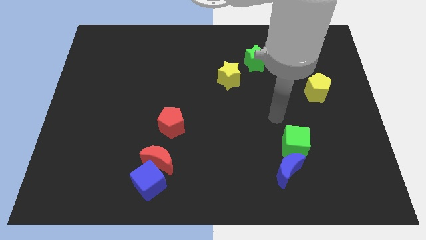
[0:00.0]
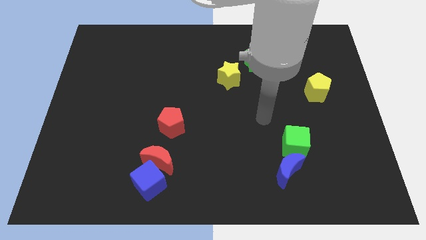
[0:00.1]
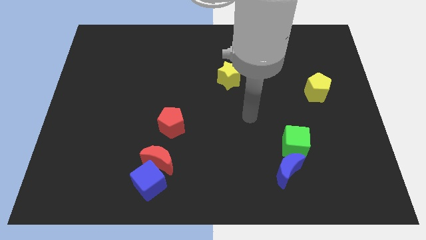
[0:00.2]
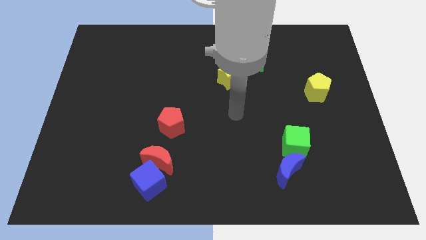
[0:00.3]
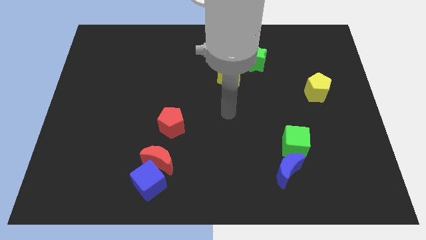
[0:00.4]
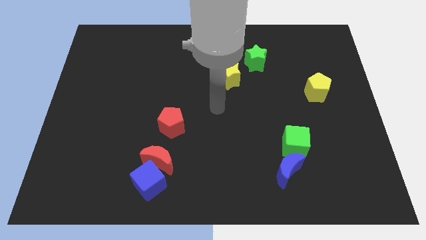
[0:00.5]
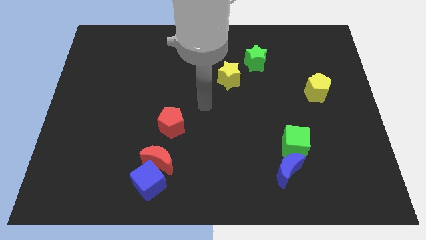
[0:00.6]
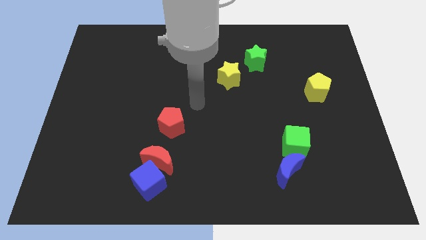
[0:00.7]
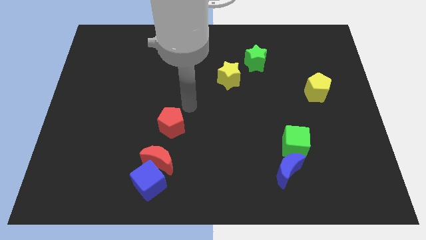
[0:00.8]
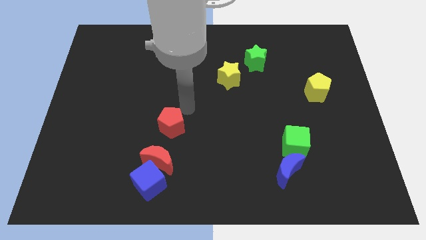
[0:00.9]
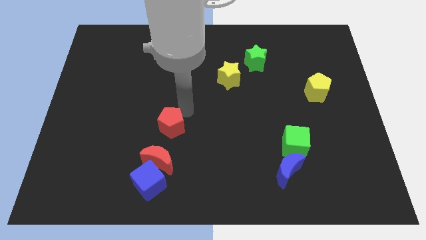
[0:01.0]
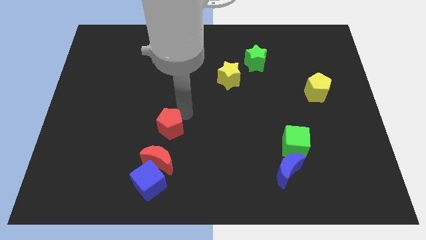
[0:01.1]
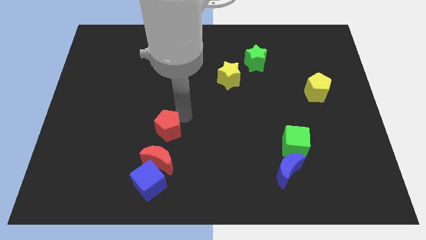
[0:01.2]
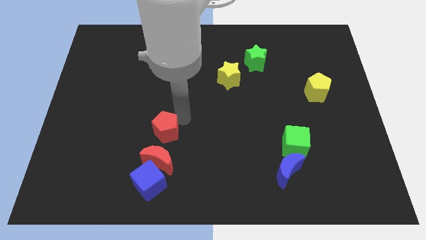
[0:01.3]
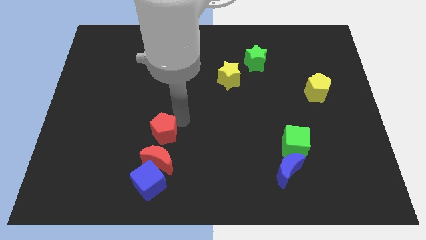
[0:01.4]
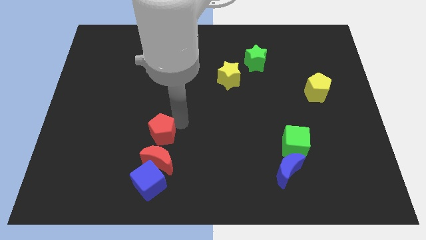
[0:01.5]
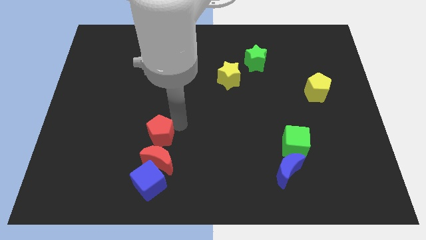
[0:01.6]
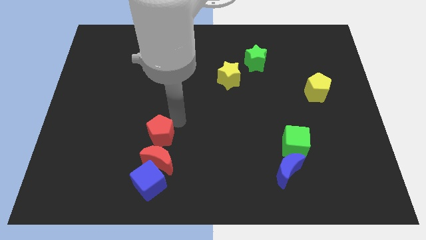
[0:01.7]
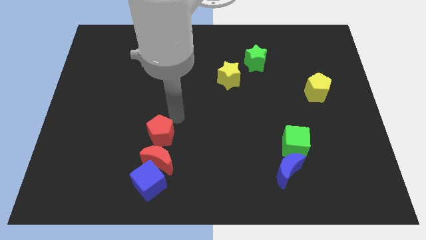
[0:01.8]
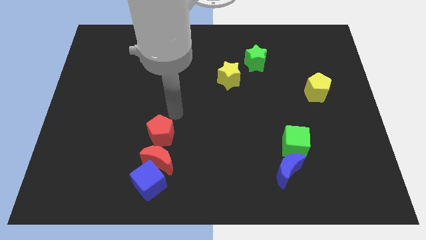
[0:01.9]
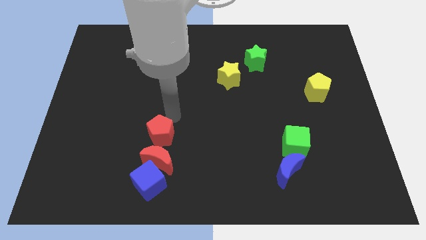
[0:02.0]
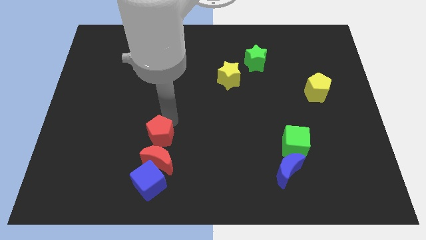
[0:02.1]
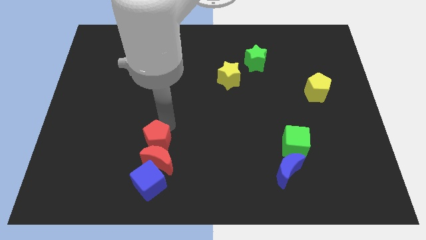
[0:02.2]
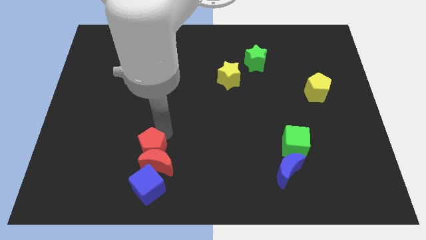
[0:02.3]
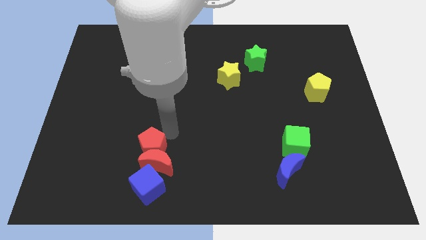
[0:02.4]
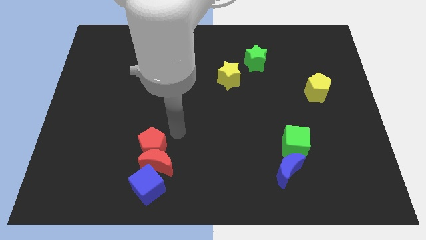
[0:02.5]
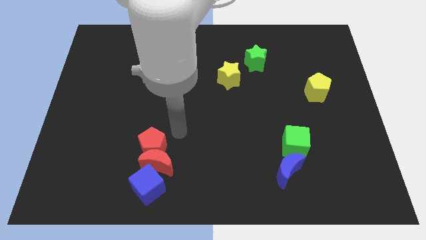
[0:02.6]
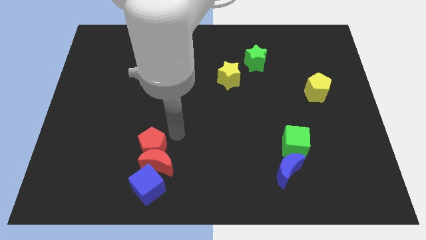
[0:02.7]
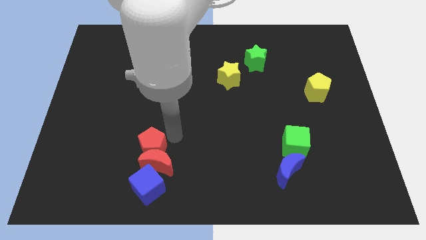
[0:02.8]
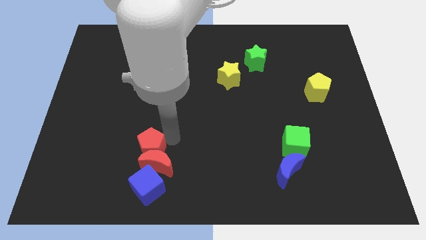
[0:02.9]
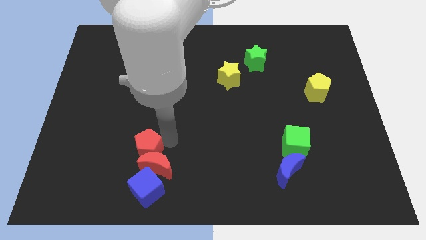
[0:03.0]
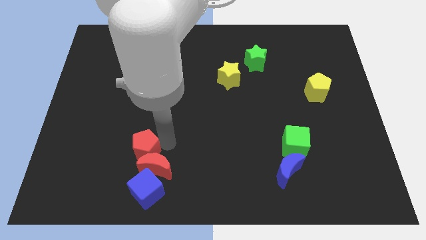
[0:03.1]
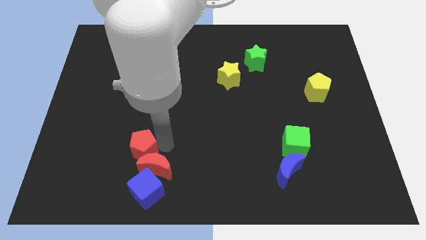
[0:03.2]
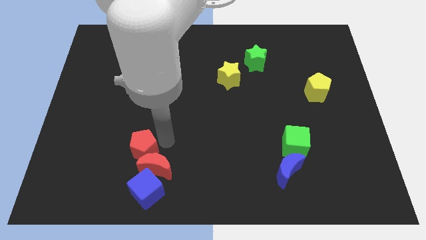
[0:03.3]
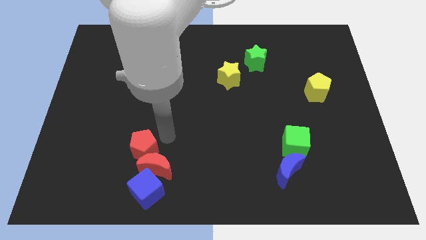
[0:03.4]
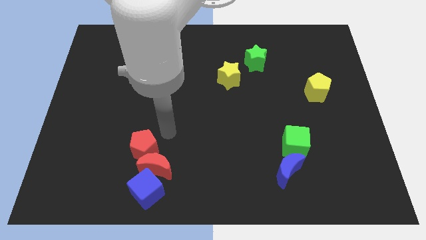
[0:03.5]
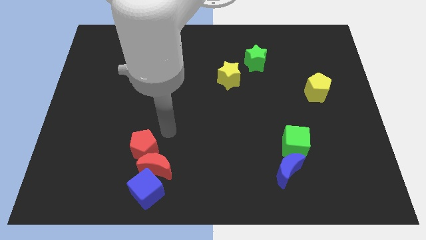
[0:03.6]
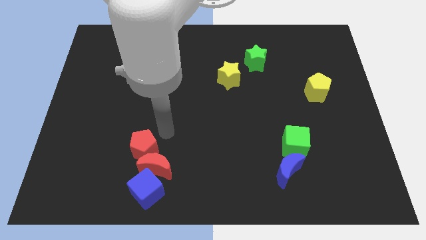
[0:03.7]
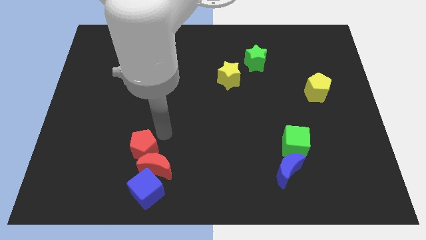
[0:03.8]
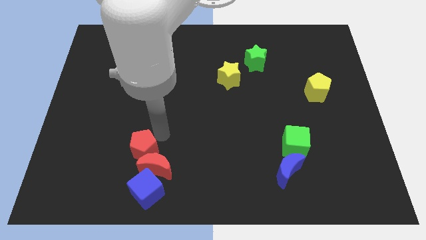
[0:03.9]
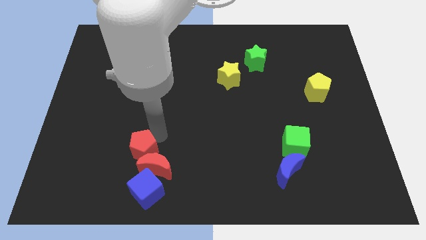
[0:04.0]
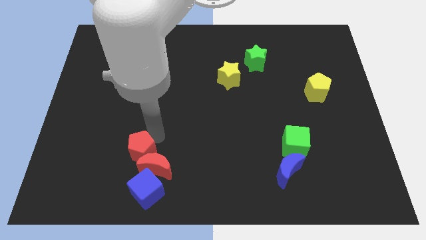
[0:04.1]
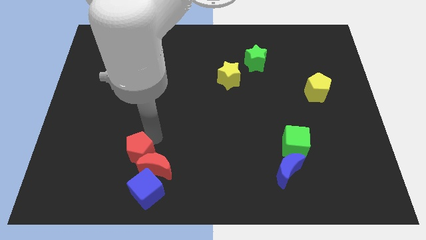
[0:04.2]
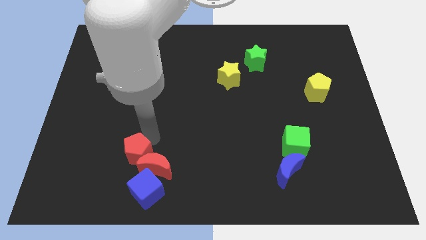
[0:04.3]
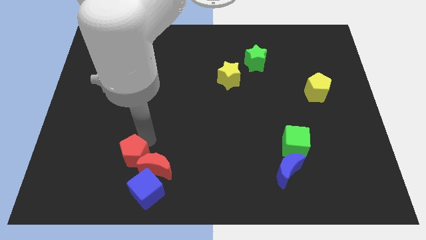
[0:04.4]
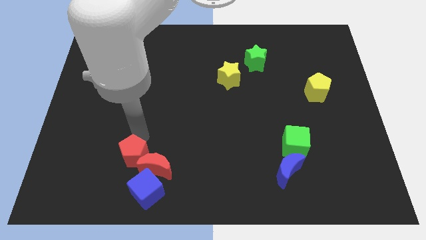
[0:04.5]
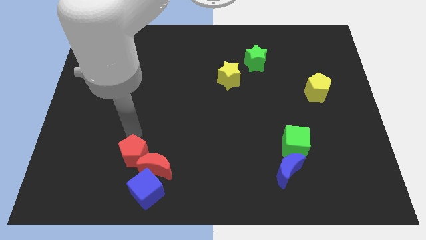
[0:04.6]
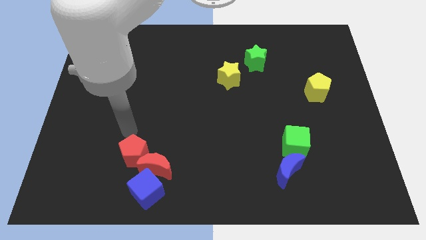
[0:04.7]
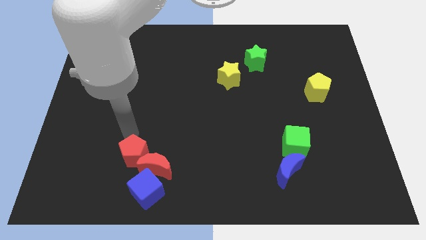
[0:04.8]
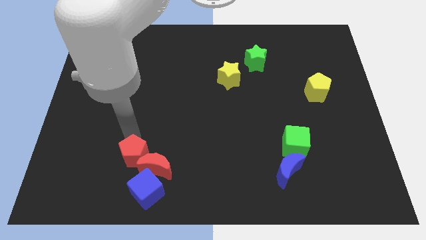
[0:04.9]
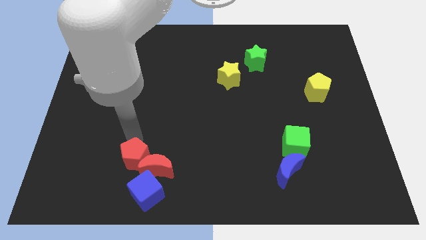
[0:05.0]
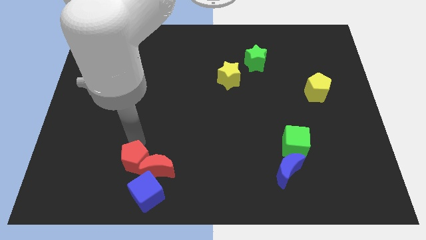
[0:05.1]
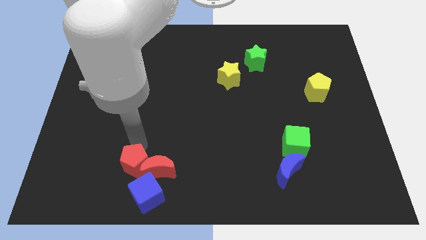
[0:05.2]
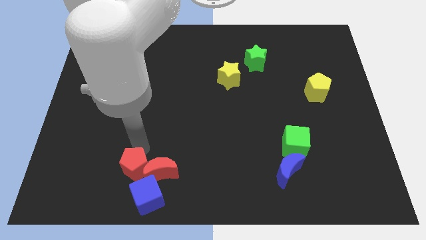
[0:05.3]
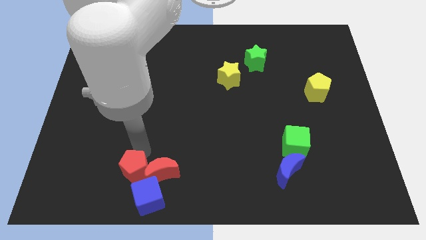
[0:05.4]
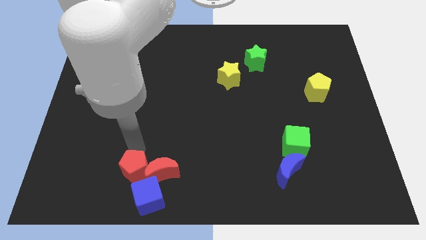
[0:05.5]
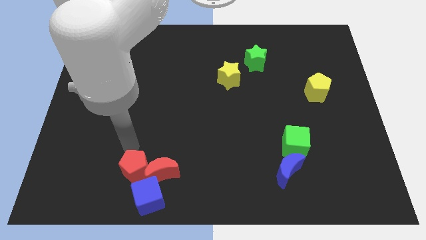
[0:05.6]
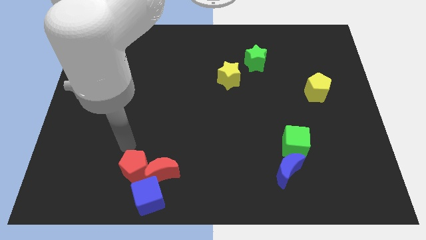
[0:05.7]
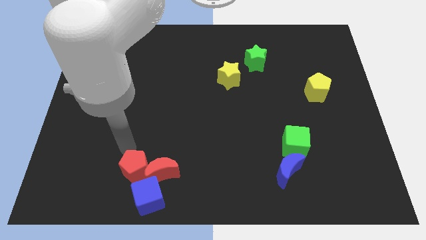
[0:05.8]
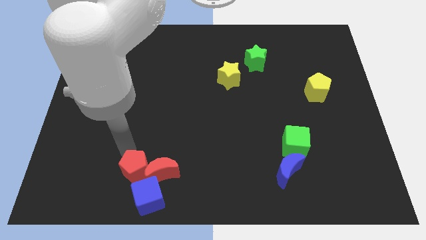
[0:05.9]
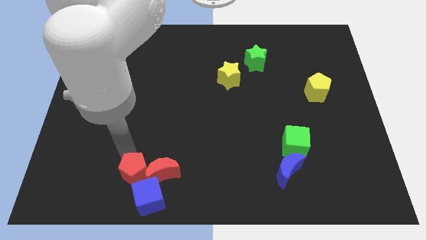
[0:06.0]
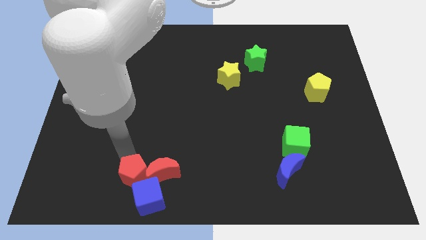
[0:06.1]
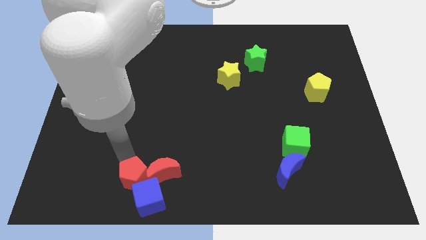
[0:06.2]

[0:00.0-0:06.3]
put the red pentagon close to the blue cube
